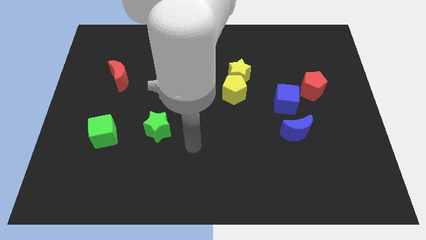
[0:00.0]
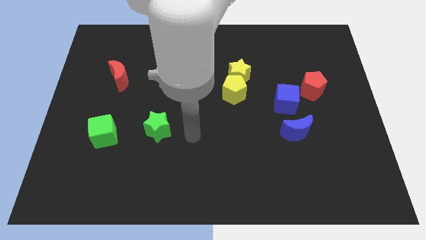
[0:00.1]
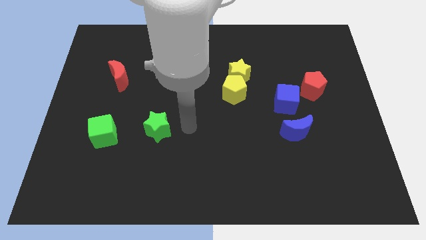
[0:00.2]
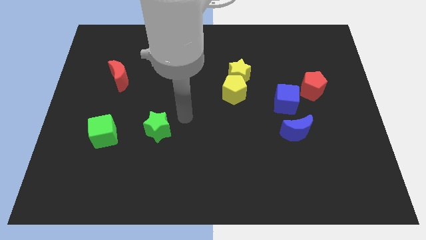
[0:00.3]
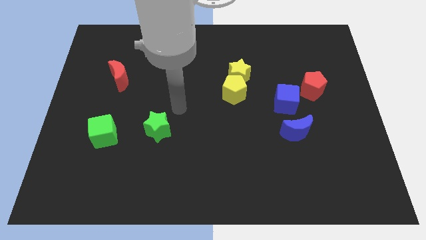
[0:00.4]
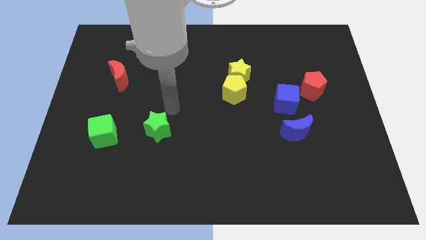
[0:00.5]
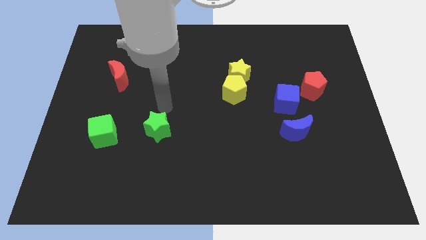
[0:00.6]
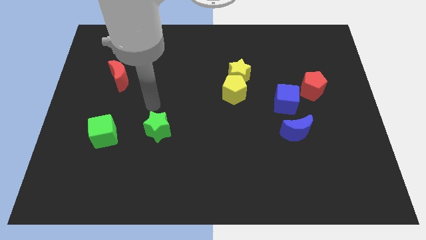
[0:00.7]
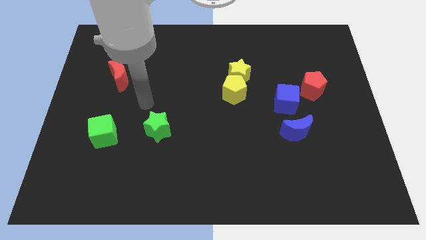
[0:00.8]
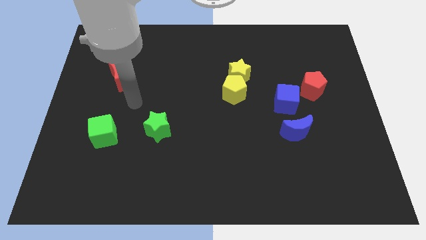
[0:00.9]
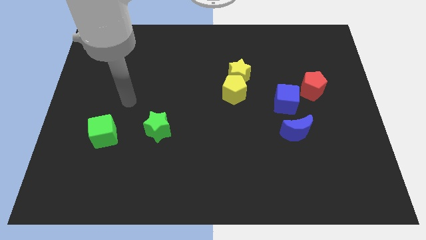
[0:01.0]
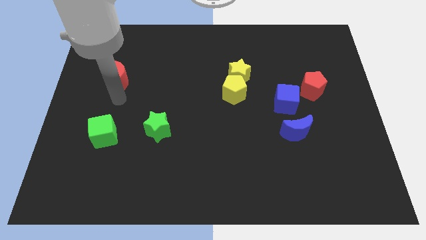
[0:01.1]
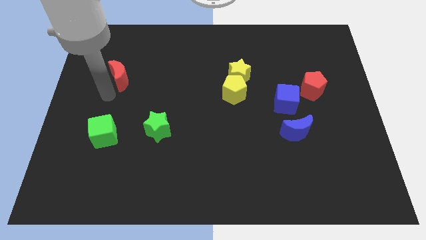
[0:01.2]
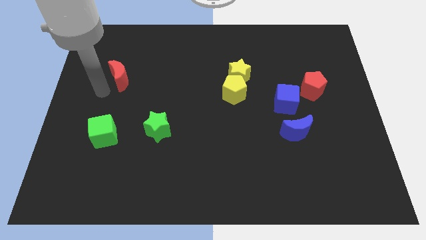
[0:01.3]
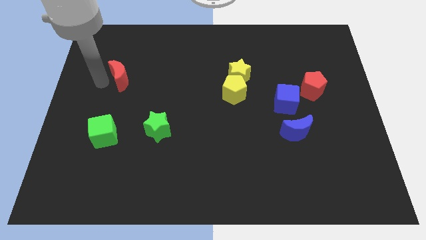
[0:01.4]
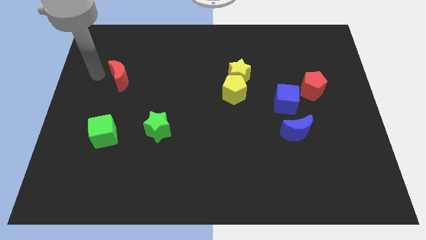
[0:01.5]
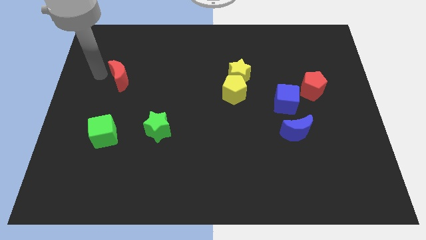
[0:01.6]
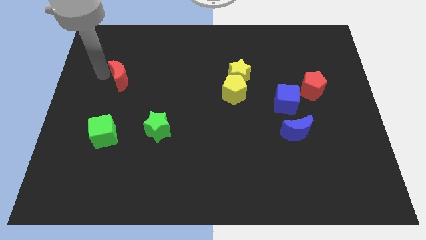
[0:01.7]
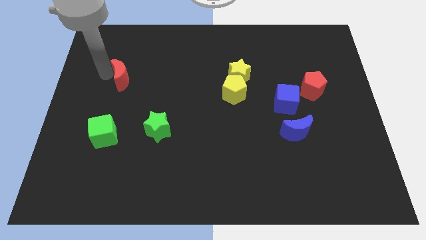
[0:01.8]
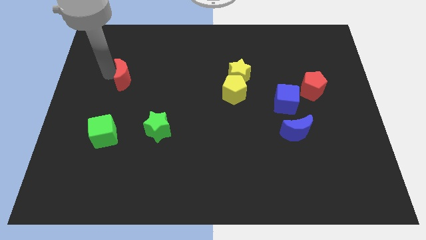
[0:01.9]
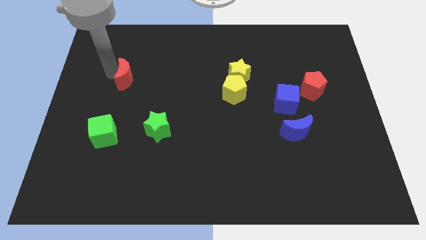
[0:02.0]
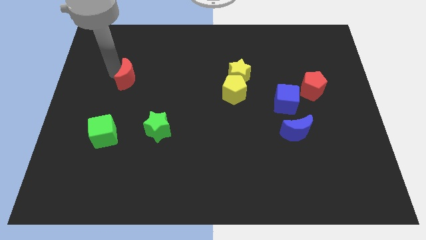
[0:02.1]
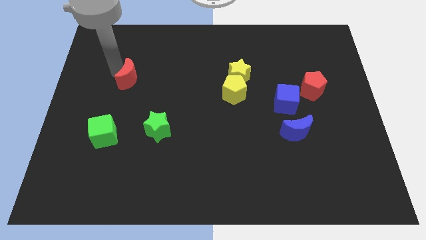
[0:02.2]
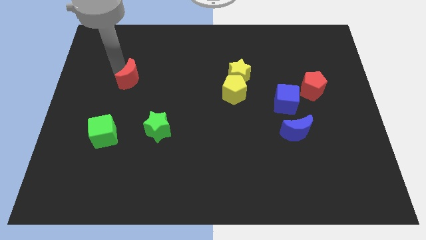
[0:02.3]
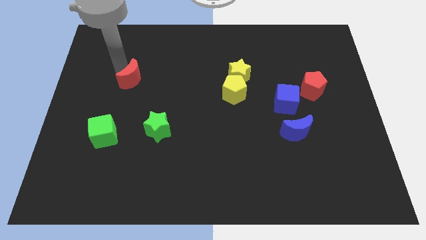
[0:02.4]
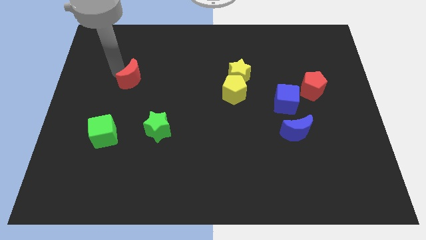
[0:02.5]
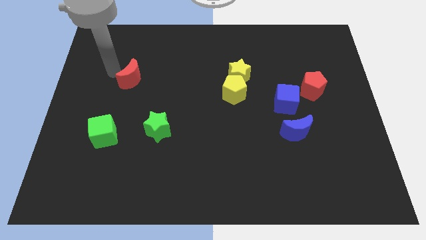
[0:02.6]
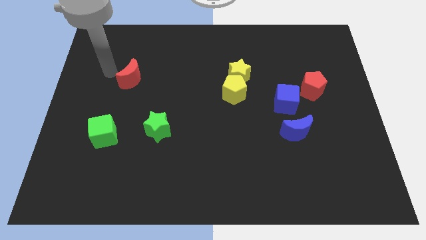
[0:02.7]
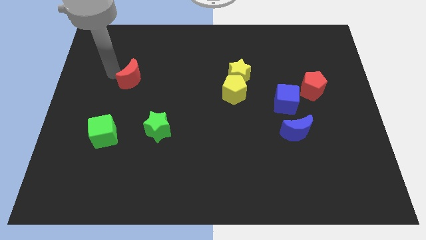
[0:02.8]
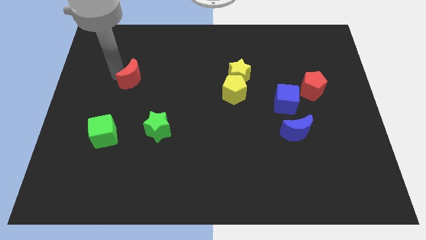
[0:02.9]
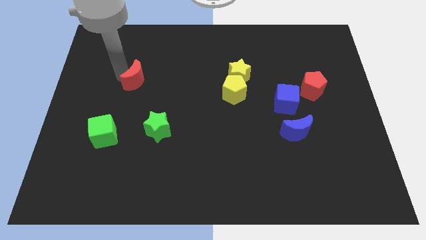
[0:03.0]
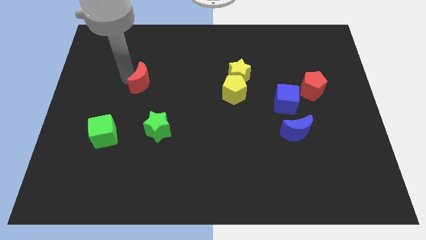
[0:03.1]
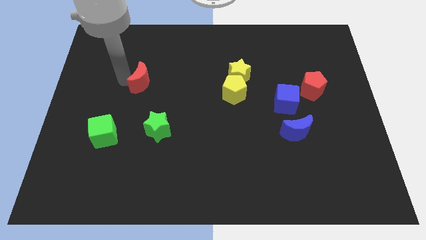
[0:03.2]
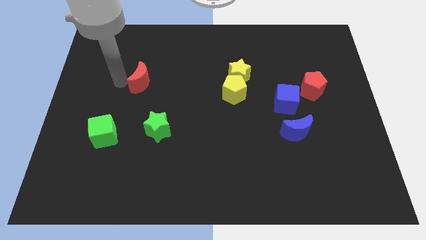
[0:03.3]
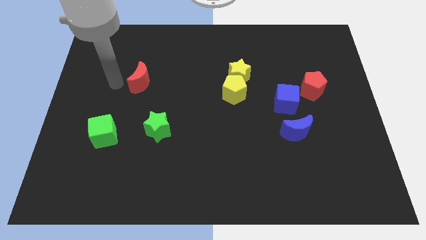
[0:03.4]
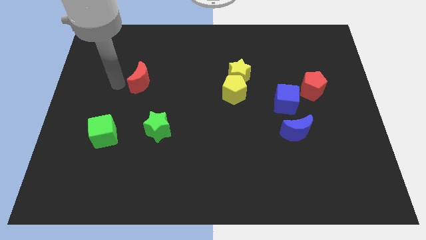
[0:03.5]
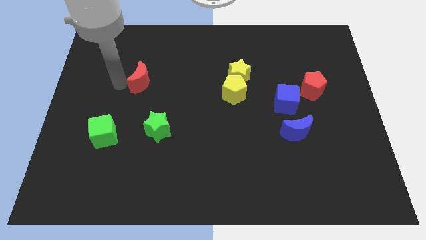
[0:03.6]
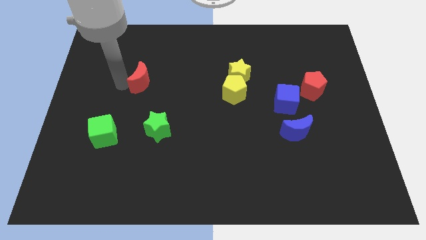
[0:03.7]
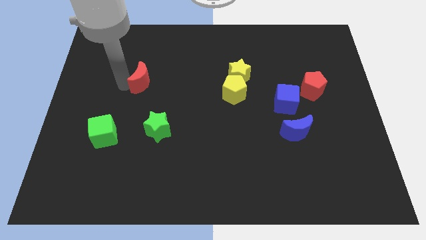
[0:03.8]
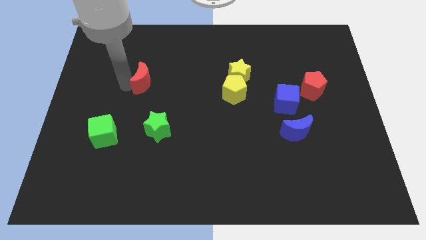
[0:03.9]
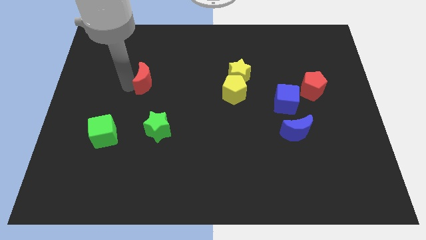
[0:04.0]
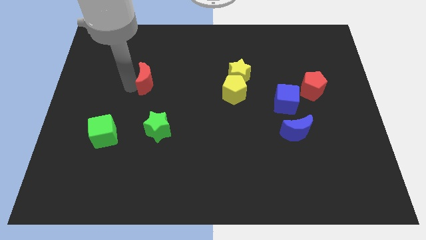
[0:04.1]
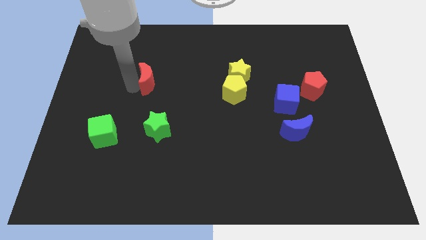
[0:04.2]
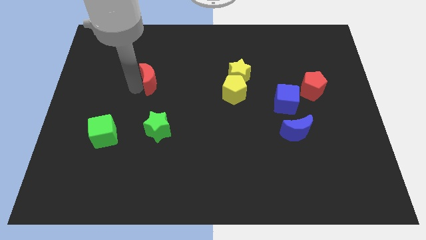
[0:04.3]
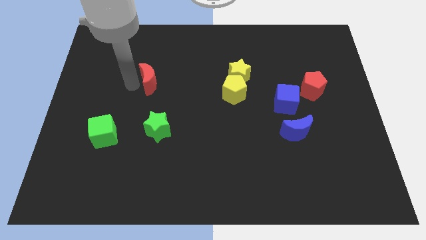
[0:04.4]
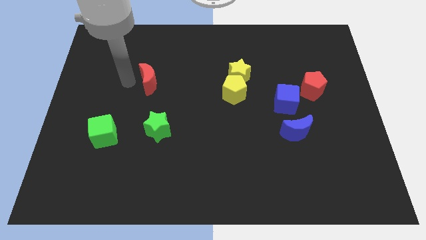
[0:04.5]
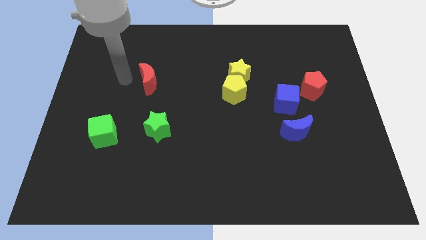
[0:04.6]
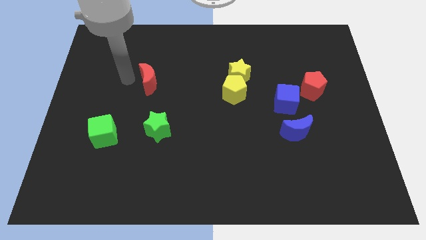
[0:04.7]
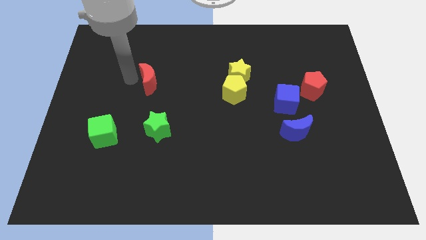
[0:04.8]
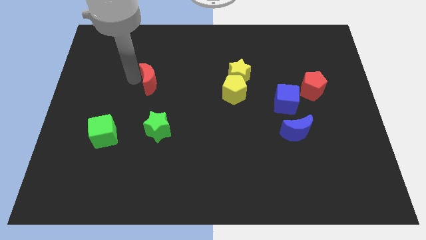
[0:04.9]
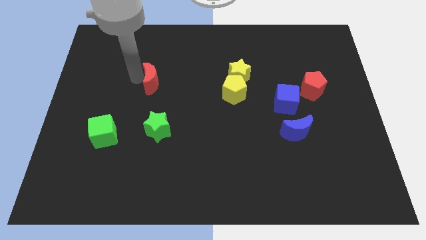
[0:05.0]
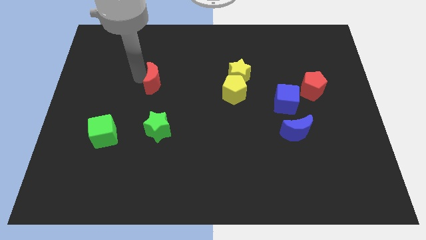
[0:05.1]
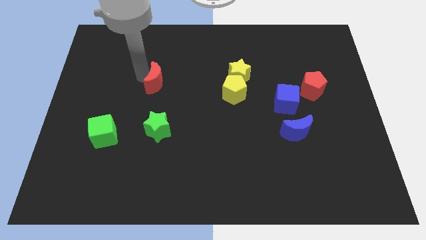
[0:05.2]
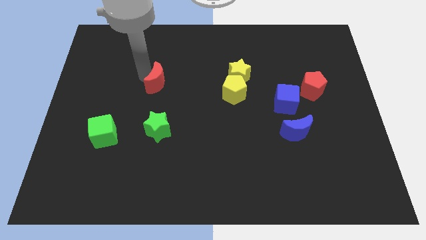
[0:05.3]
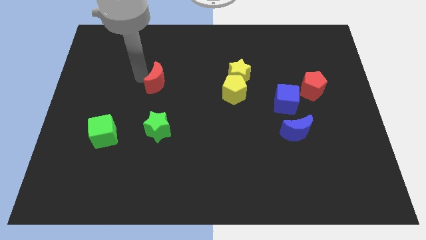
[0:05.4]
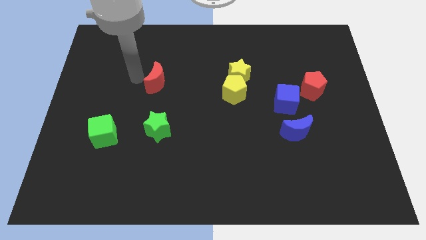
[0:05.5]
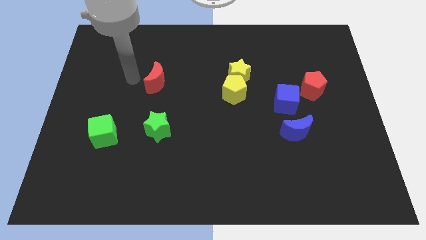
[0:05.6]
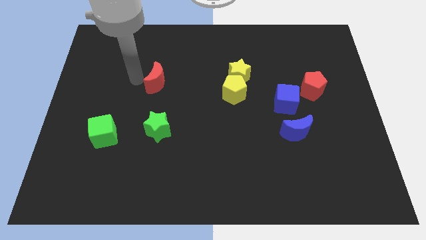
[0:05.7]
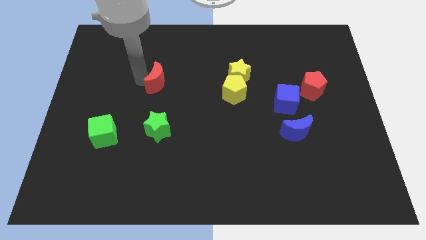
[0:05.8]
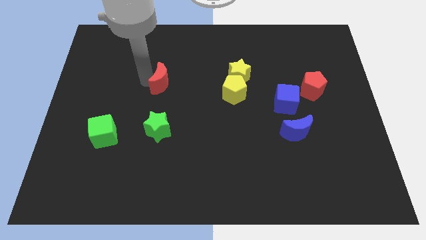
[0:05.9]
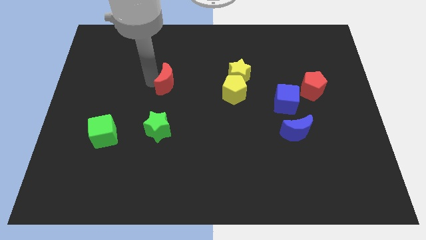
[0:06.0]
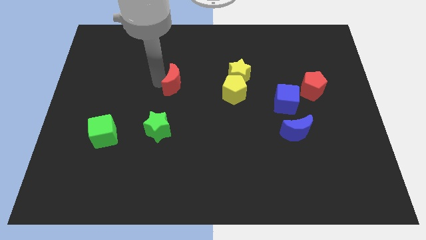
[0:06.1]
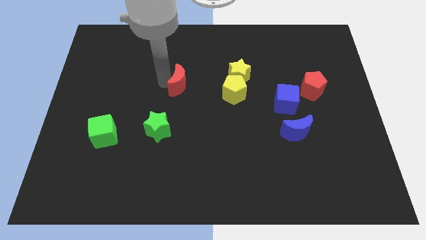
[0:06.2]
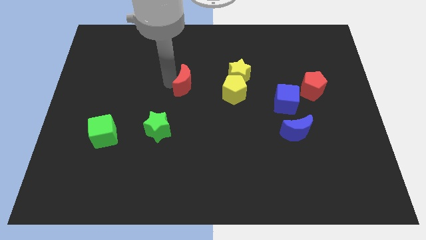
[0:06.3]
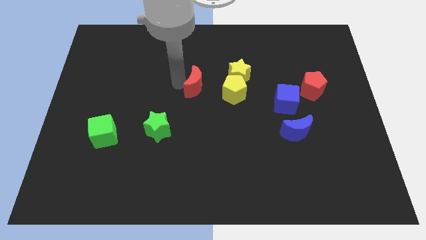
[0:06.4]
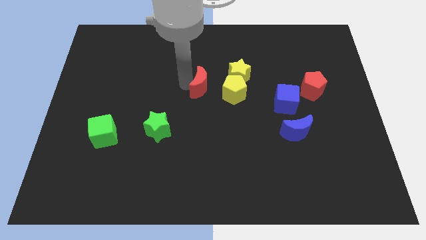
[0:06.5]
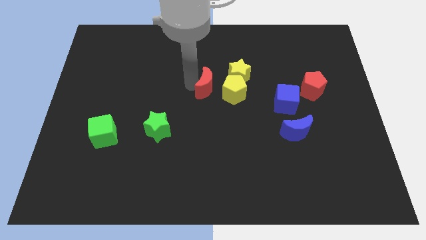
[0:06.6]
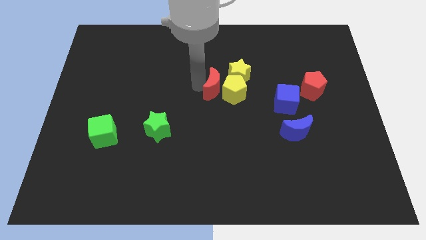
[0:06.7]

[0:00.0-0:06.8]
move the red moon towards the yellow pentagon

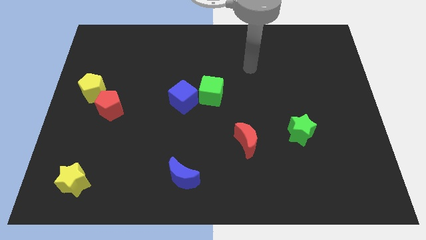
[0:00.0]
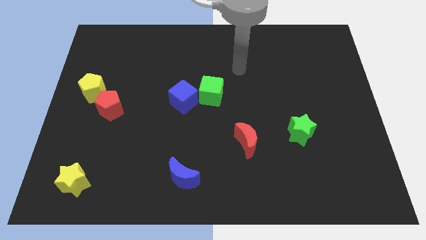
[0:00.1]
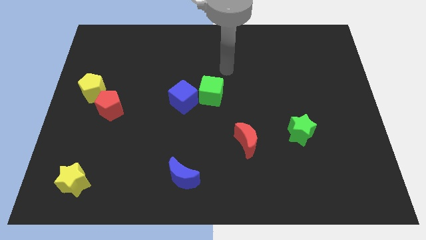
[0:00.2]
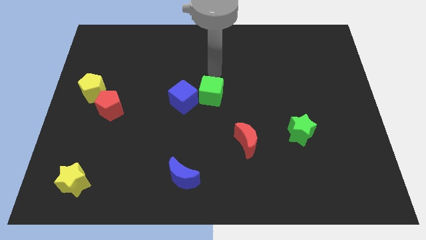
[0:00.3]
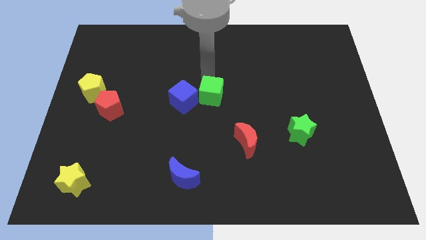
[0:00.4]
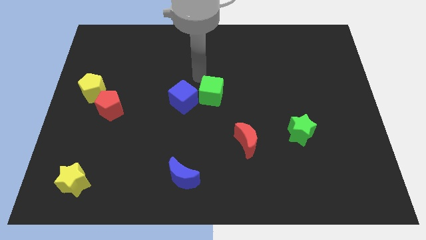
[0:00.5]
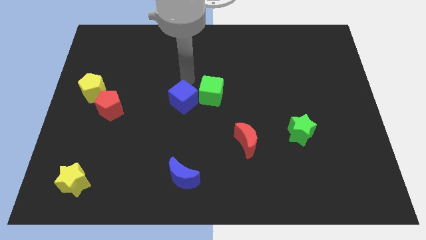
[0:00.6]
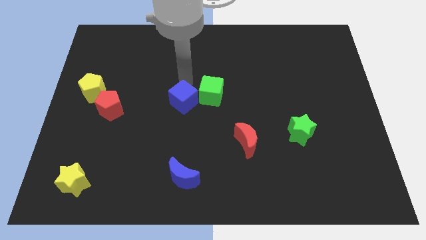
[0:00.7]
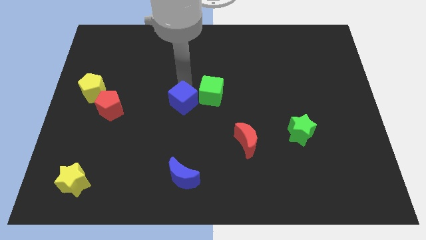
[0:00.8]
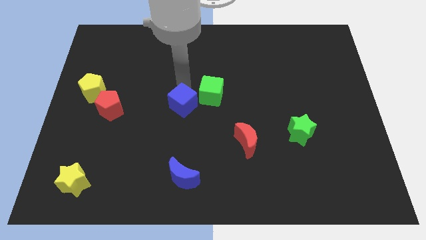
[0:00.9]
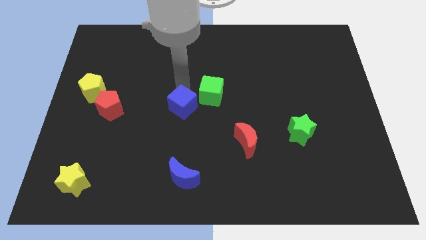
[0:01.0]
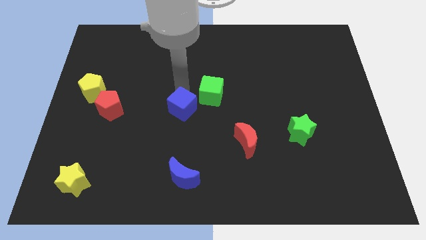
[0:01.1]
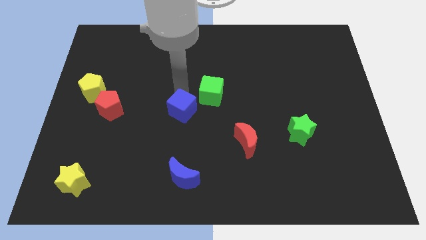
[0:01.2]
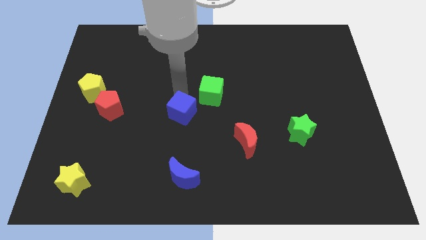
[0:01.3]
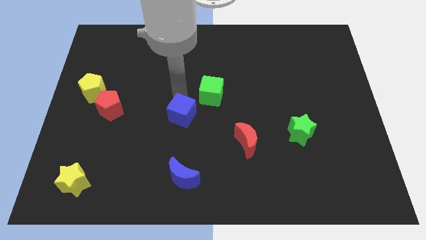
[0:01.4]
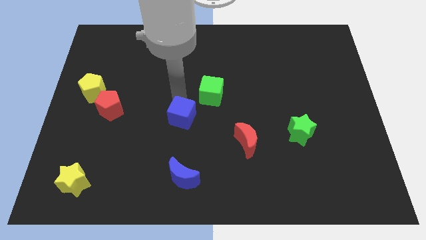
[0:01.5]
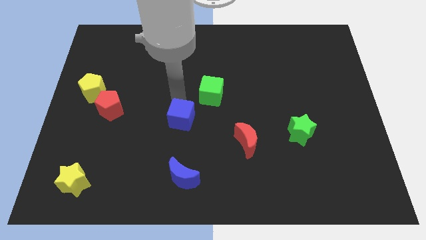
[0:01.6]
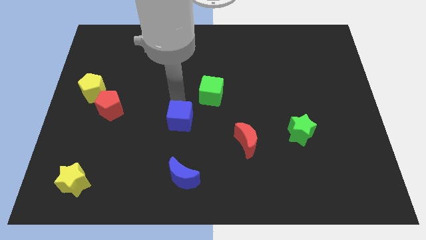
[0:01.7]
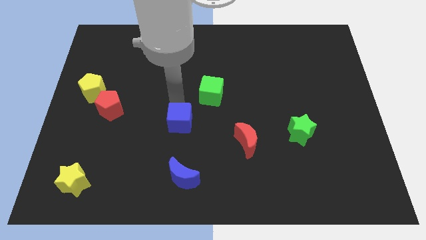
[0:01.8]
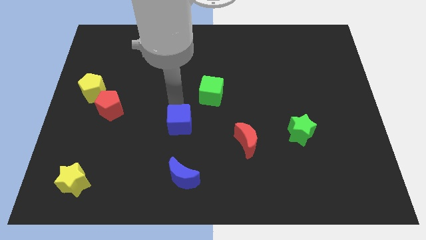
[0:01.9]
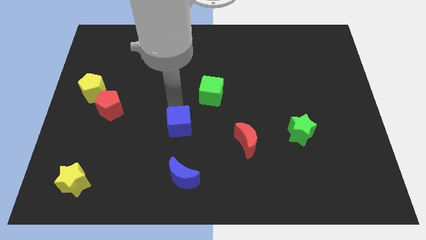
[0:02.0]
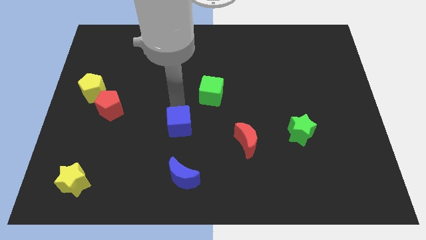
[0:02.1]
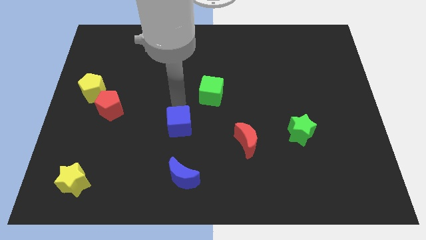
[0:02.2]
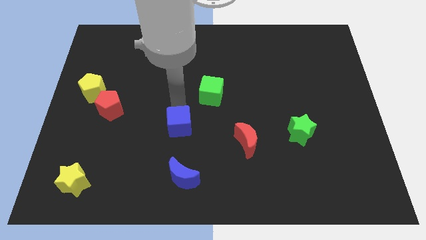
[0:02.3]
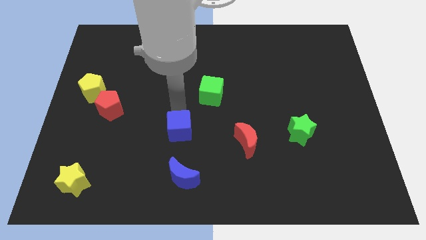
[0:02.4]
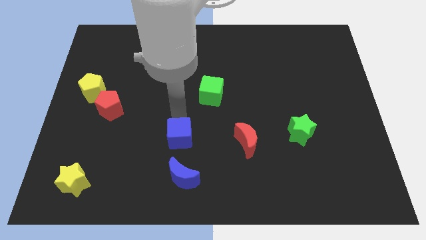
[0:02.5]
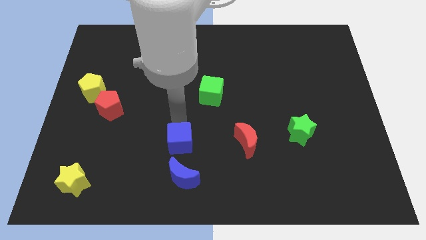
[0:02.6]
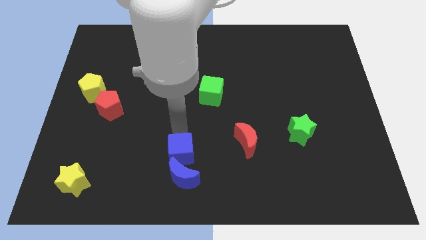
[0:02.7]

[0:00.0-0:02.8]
push the blue cube to the blue moon
